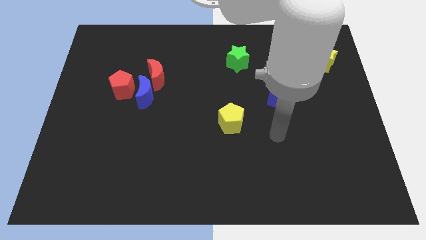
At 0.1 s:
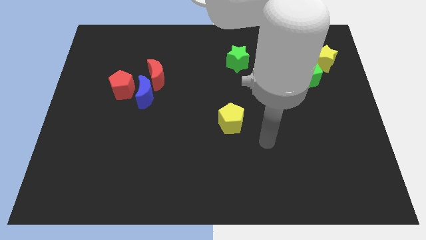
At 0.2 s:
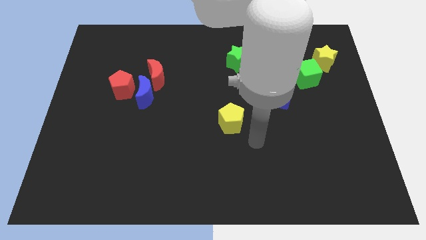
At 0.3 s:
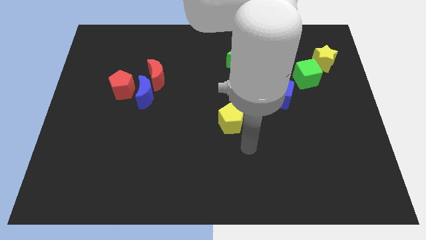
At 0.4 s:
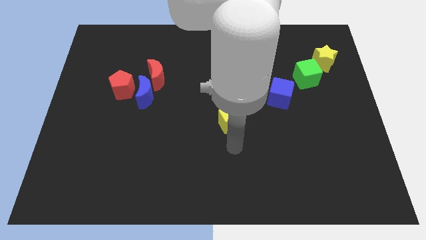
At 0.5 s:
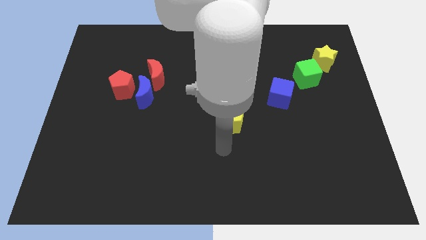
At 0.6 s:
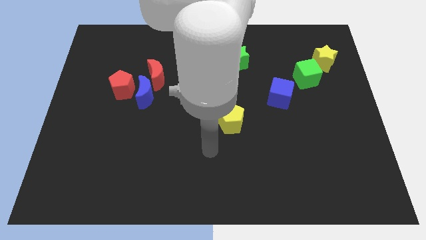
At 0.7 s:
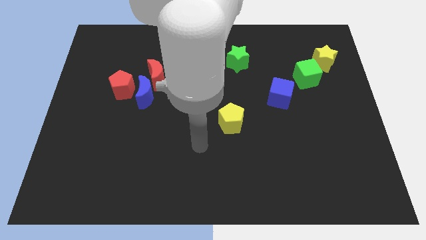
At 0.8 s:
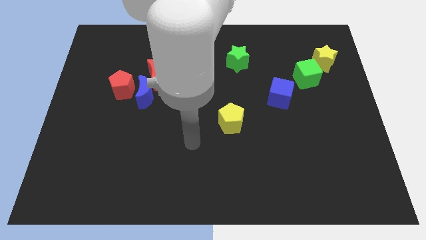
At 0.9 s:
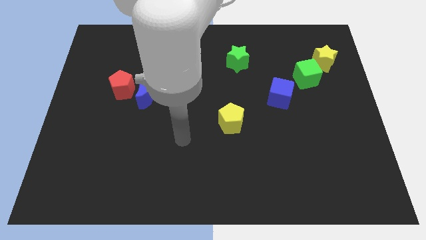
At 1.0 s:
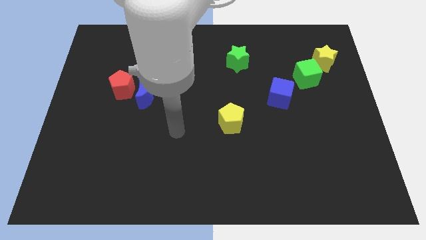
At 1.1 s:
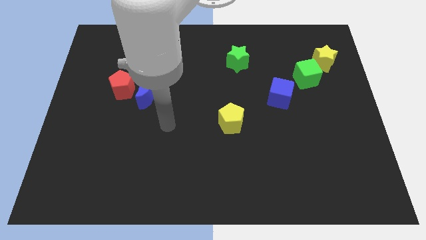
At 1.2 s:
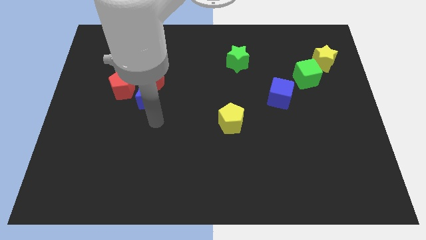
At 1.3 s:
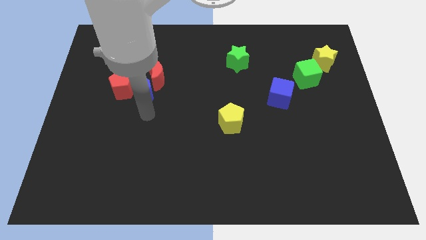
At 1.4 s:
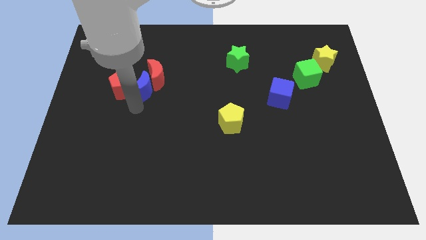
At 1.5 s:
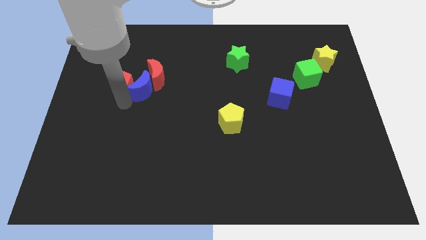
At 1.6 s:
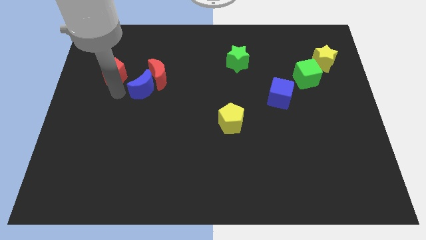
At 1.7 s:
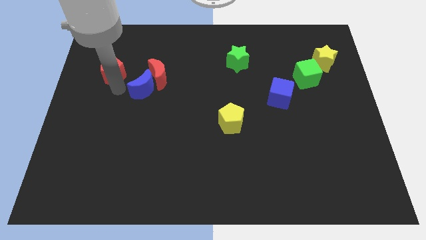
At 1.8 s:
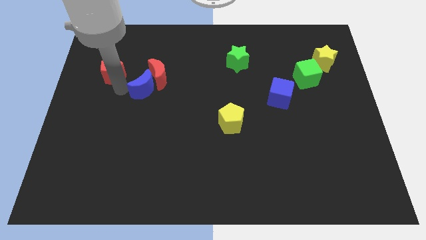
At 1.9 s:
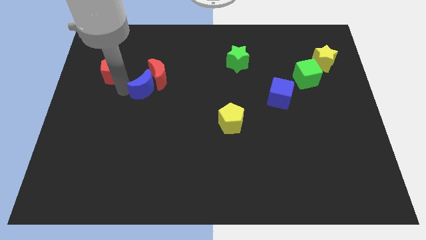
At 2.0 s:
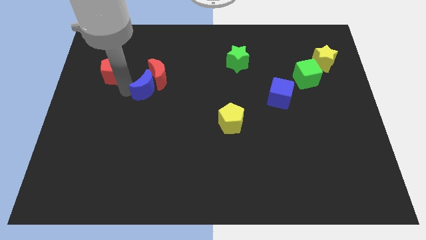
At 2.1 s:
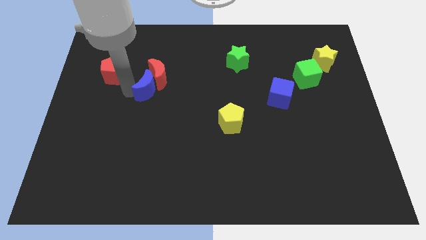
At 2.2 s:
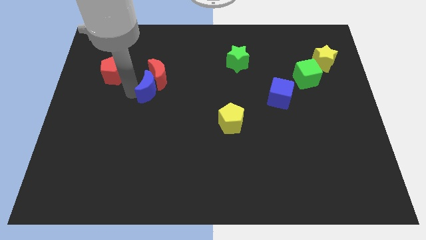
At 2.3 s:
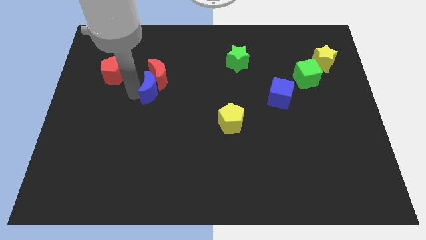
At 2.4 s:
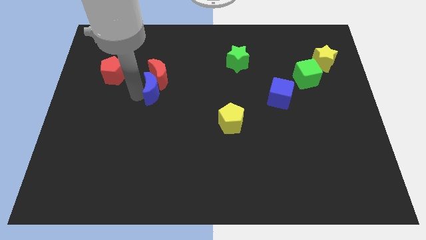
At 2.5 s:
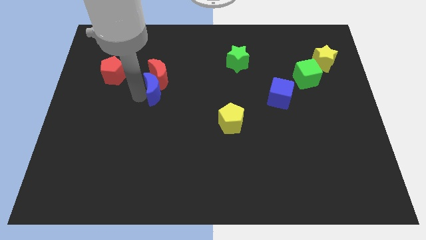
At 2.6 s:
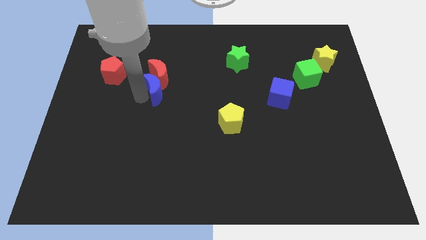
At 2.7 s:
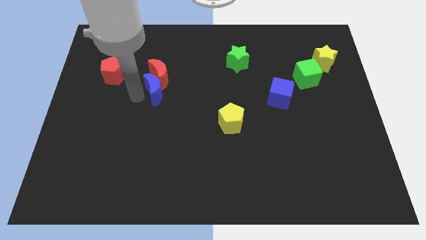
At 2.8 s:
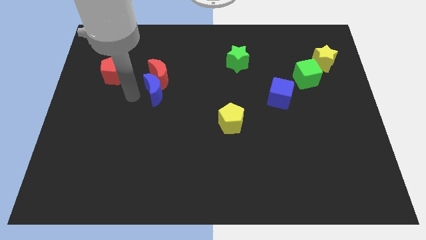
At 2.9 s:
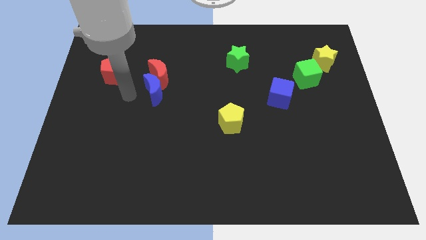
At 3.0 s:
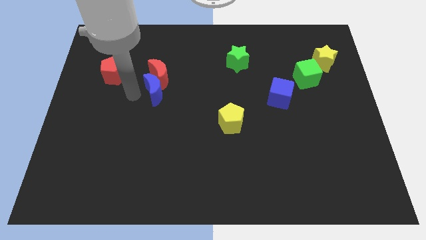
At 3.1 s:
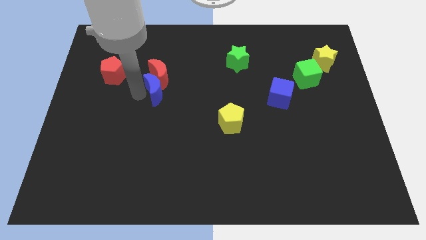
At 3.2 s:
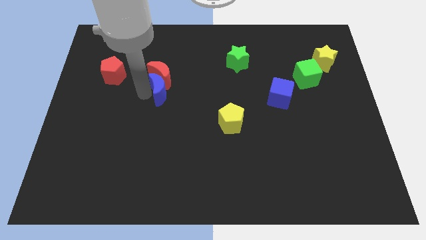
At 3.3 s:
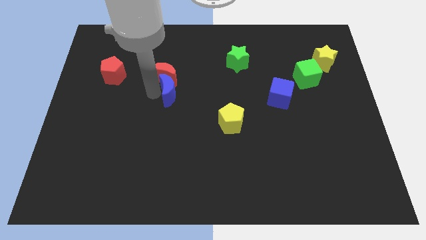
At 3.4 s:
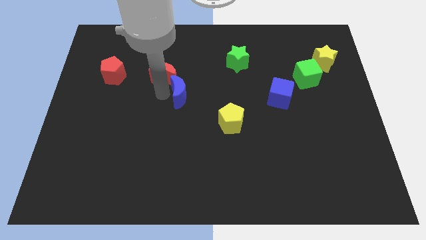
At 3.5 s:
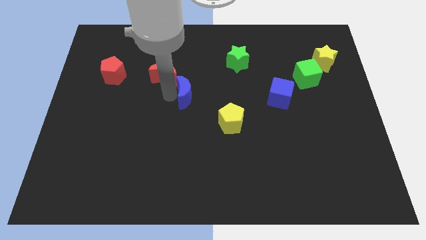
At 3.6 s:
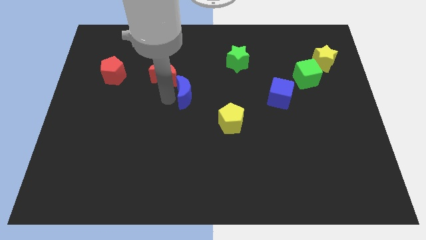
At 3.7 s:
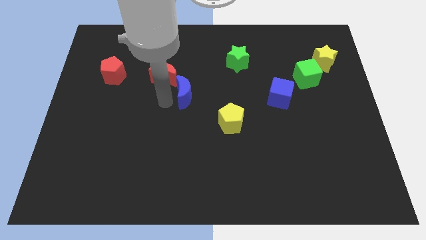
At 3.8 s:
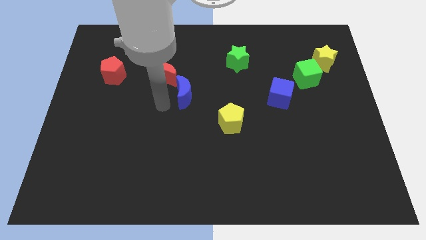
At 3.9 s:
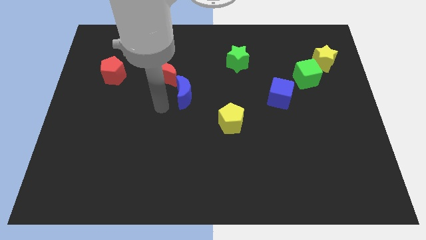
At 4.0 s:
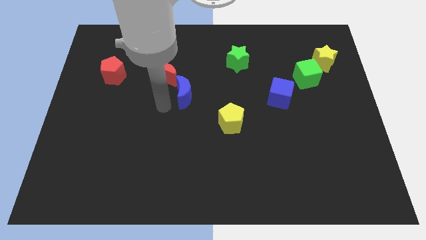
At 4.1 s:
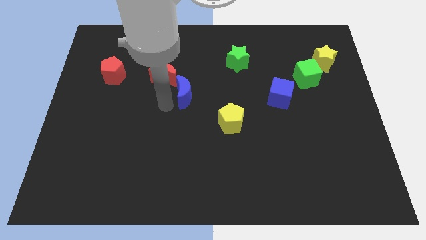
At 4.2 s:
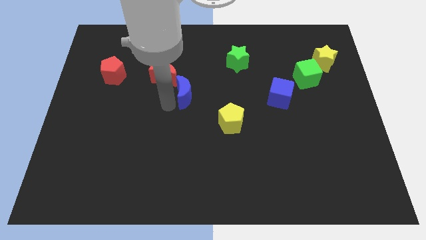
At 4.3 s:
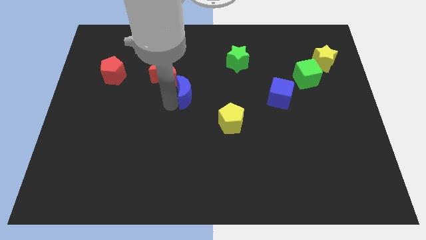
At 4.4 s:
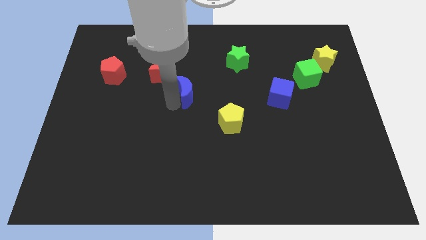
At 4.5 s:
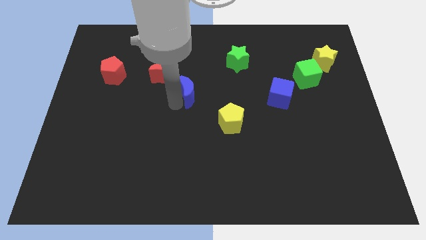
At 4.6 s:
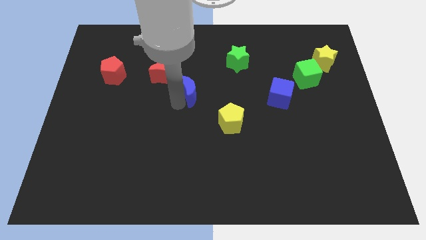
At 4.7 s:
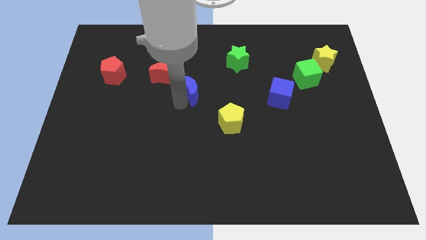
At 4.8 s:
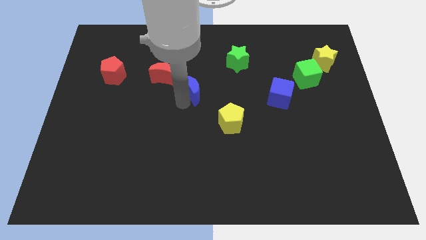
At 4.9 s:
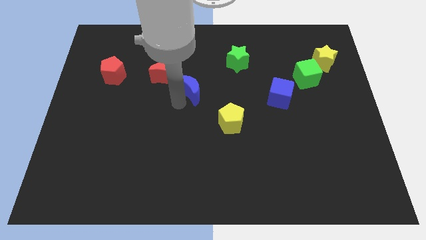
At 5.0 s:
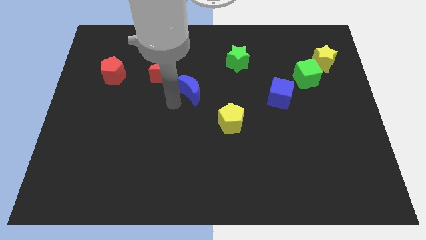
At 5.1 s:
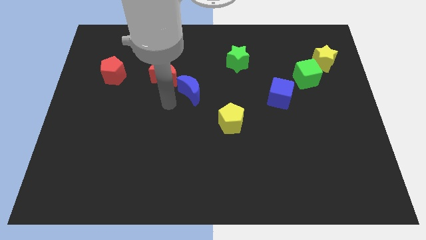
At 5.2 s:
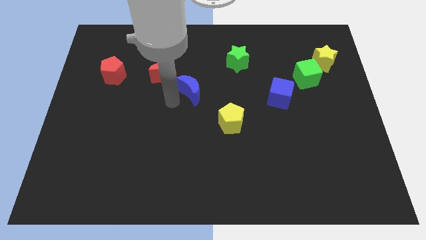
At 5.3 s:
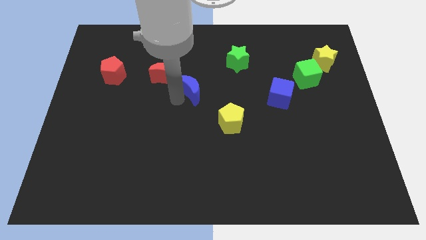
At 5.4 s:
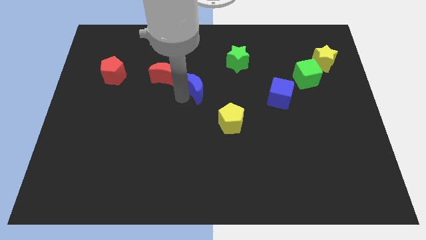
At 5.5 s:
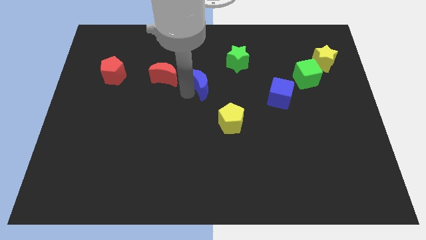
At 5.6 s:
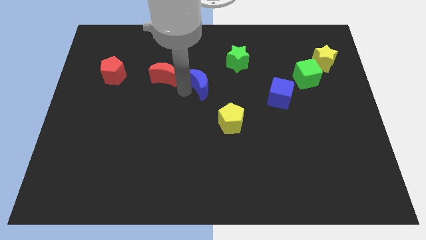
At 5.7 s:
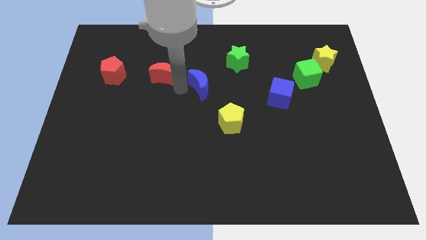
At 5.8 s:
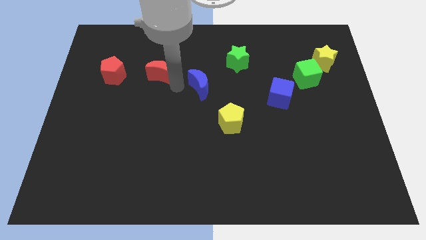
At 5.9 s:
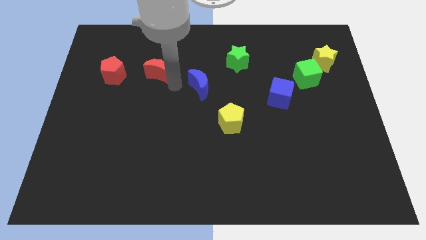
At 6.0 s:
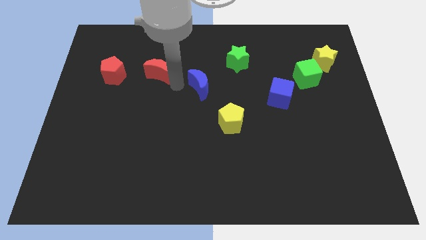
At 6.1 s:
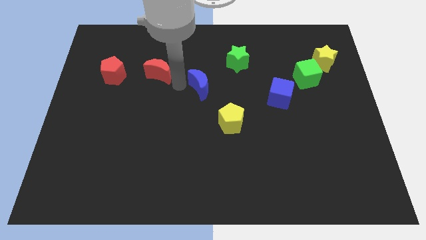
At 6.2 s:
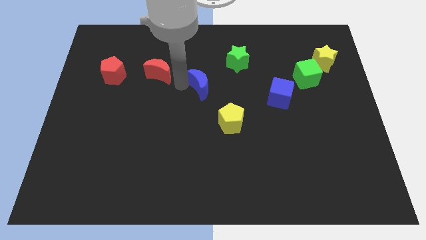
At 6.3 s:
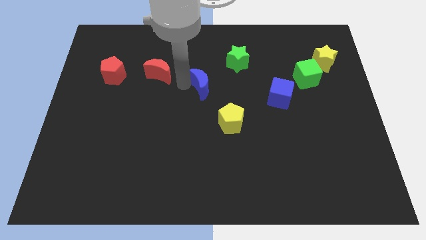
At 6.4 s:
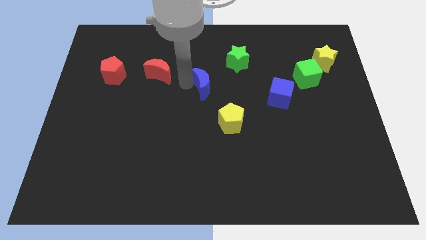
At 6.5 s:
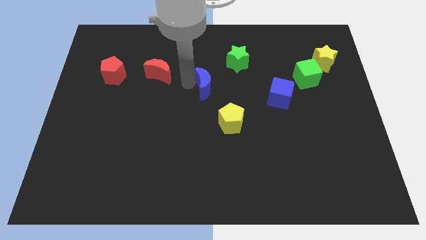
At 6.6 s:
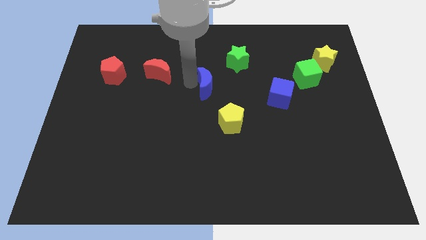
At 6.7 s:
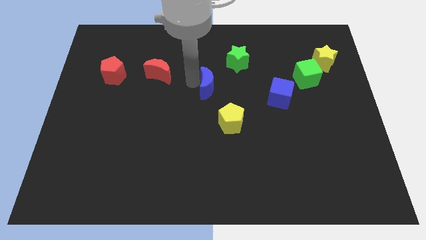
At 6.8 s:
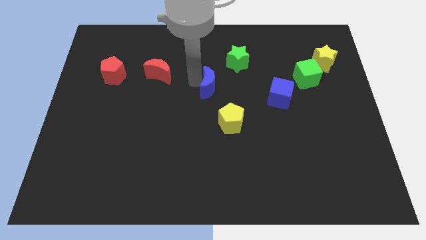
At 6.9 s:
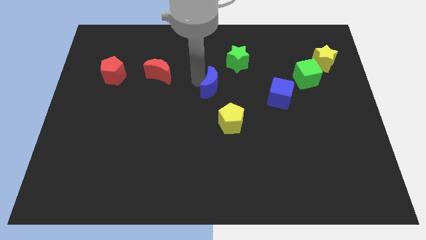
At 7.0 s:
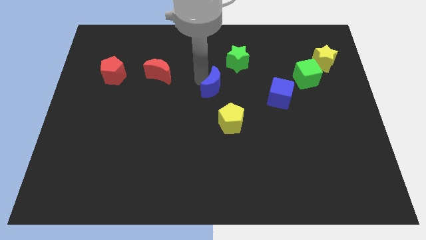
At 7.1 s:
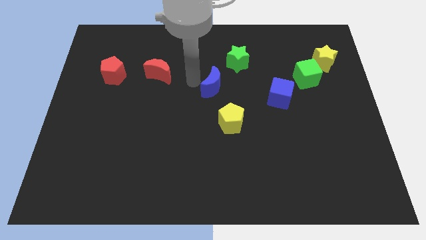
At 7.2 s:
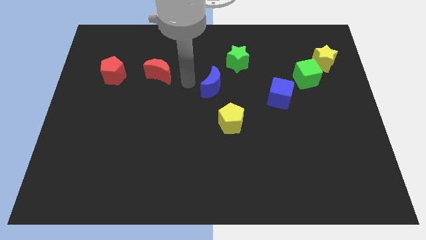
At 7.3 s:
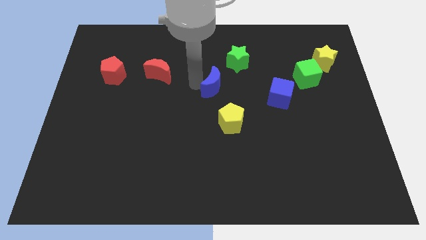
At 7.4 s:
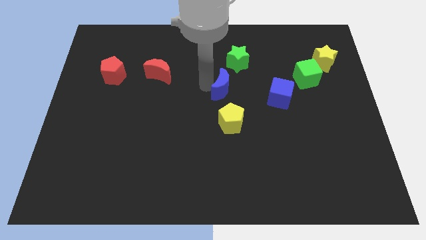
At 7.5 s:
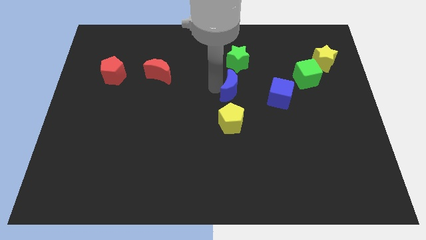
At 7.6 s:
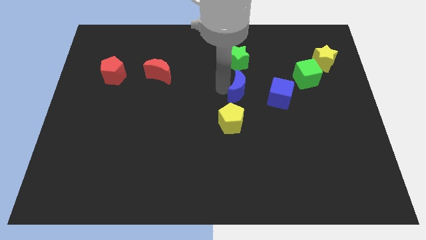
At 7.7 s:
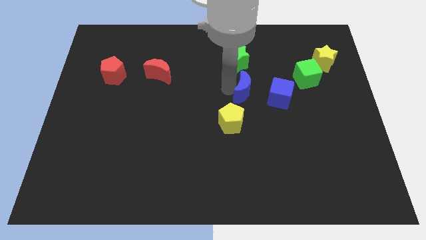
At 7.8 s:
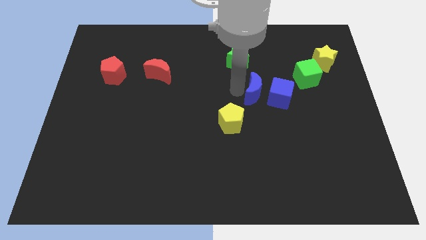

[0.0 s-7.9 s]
put the blue moon close to the blue cube

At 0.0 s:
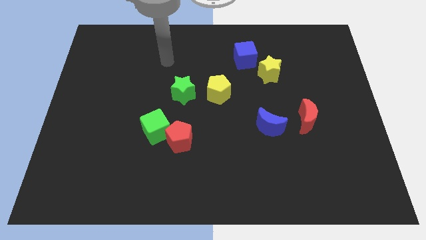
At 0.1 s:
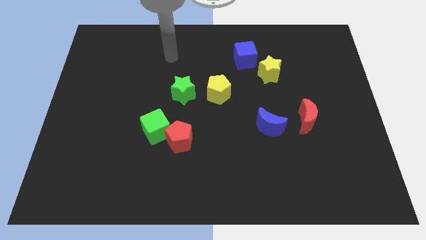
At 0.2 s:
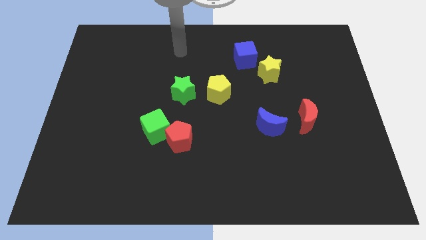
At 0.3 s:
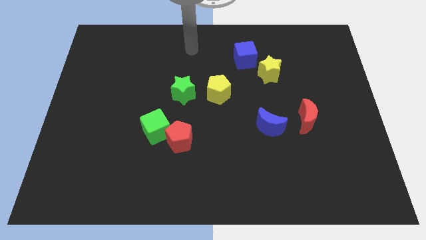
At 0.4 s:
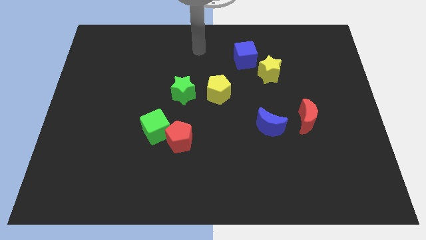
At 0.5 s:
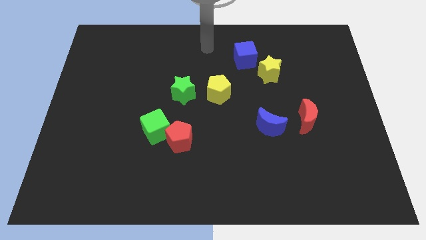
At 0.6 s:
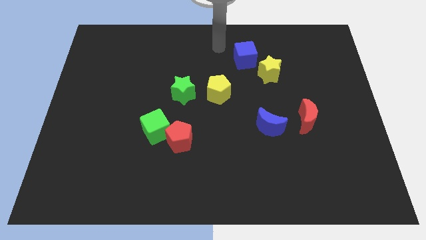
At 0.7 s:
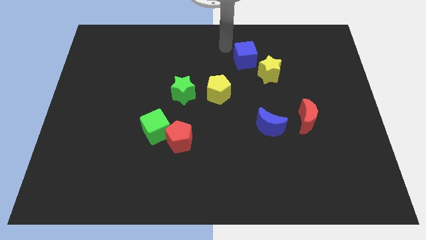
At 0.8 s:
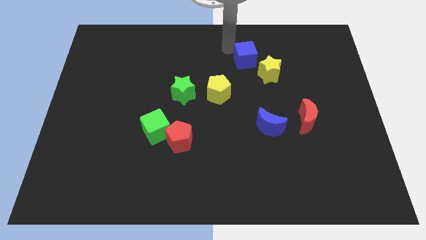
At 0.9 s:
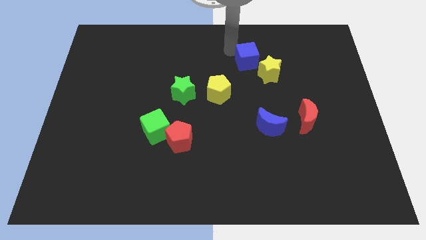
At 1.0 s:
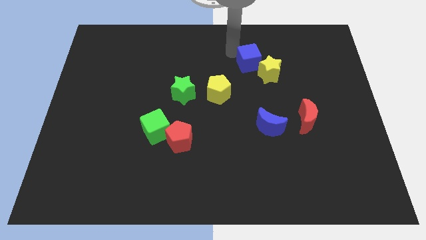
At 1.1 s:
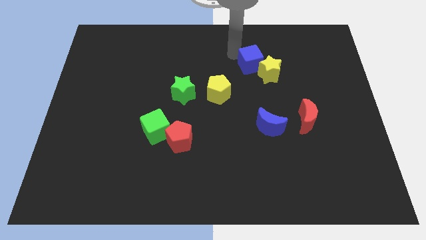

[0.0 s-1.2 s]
slide the blue cube towards the yellow star
